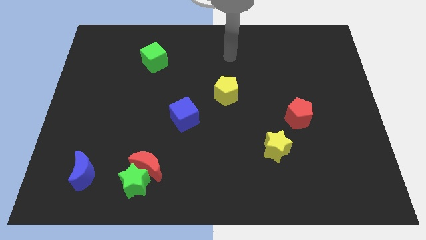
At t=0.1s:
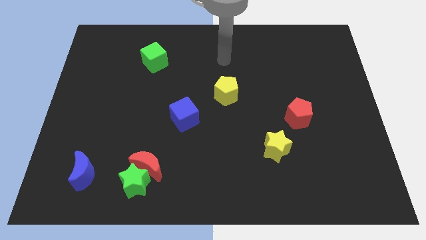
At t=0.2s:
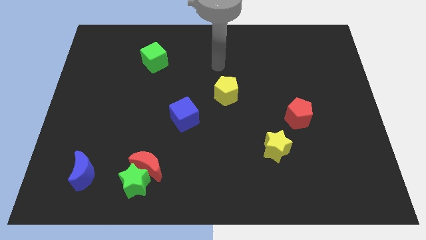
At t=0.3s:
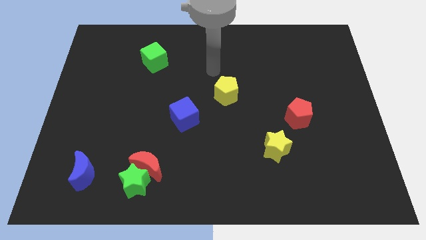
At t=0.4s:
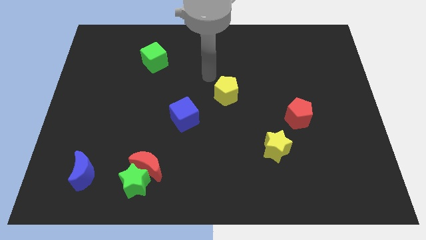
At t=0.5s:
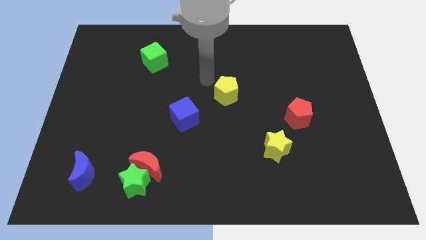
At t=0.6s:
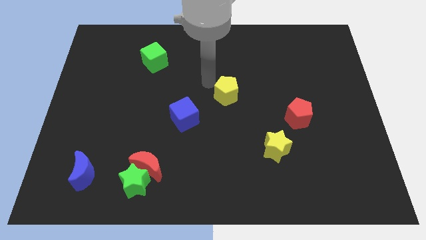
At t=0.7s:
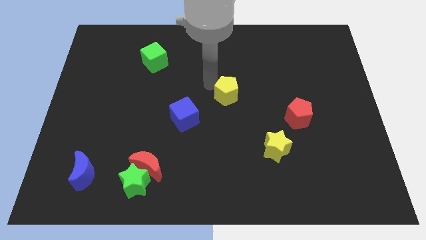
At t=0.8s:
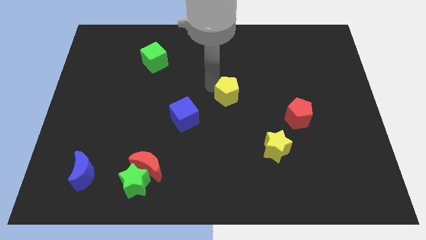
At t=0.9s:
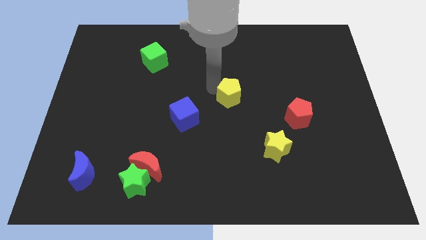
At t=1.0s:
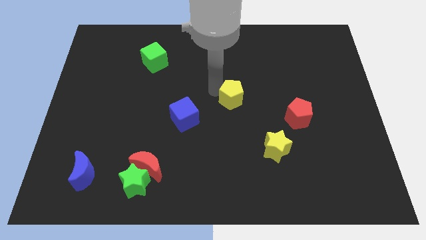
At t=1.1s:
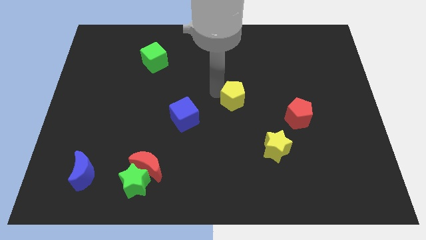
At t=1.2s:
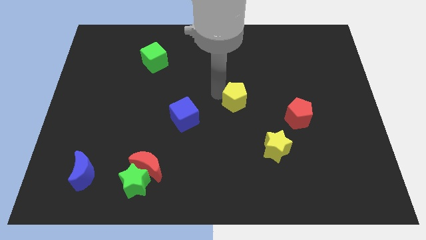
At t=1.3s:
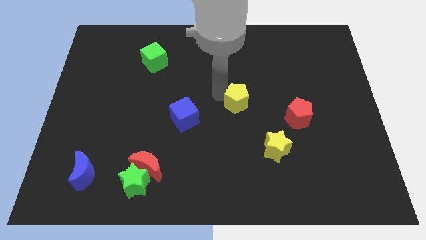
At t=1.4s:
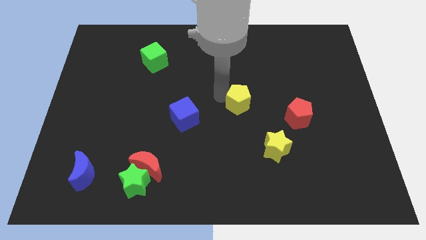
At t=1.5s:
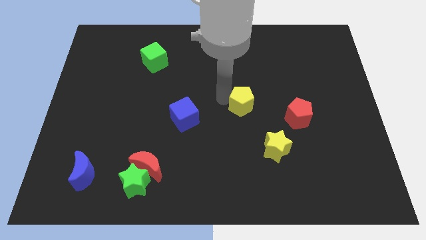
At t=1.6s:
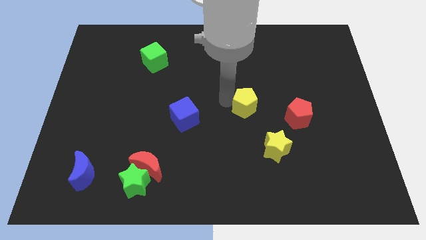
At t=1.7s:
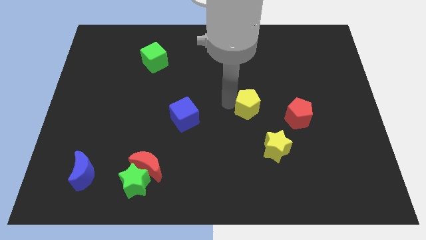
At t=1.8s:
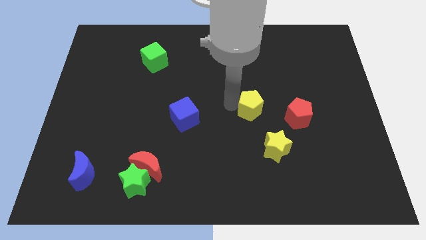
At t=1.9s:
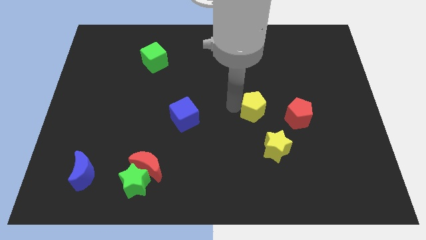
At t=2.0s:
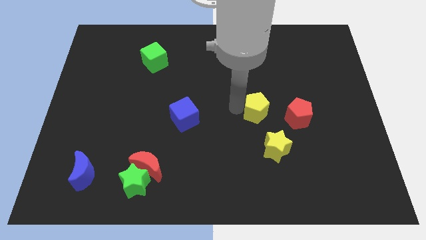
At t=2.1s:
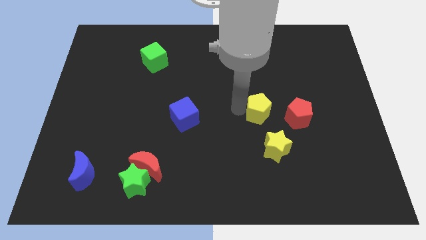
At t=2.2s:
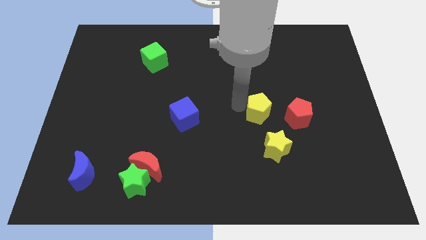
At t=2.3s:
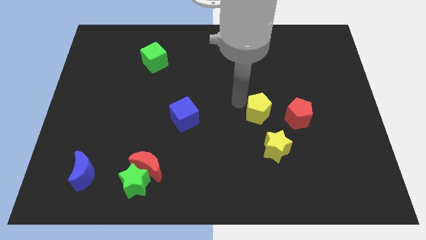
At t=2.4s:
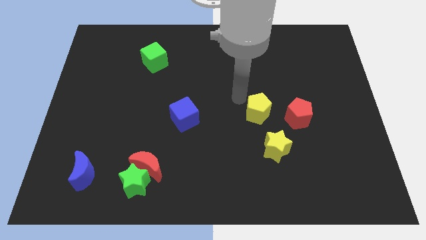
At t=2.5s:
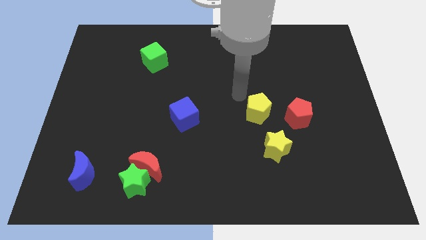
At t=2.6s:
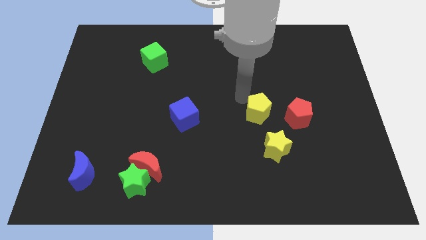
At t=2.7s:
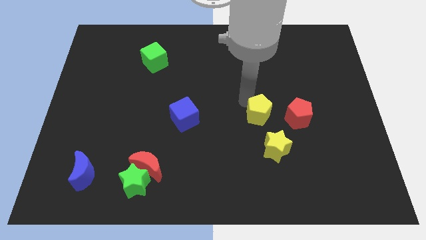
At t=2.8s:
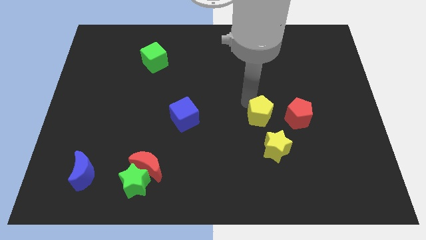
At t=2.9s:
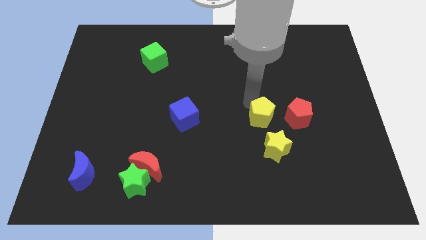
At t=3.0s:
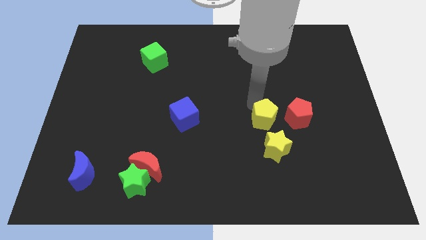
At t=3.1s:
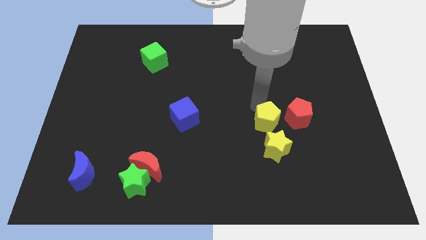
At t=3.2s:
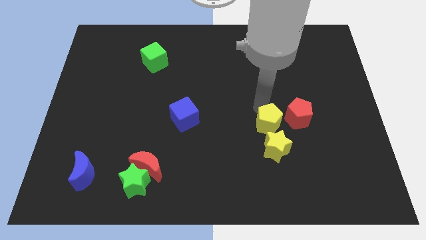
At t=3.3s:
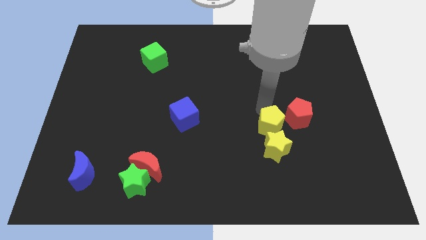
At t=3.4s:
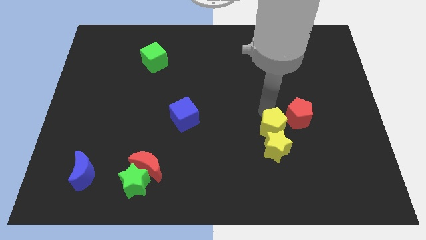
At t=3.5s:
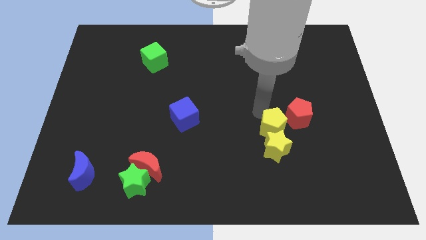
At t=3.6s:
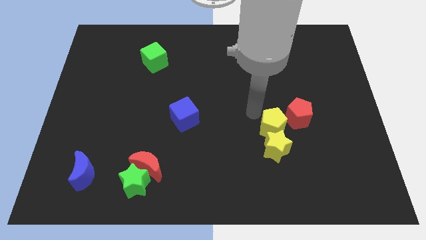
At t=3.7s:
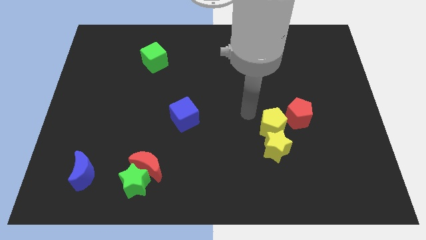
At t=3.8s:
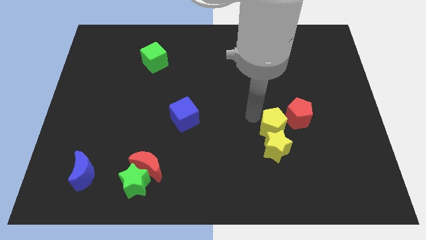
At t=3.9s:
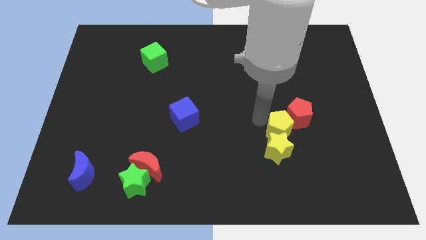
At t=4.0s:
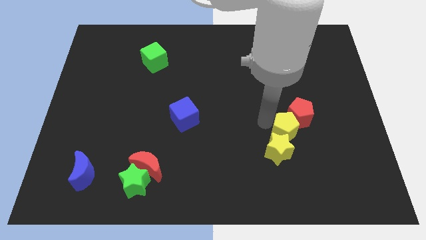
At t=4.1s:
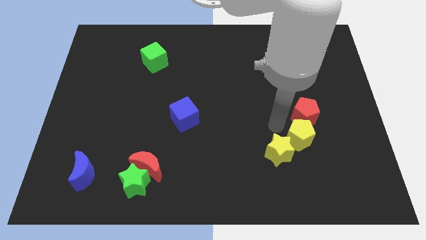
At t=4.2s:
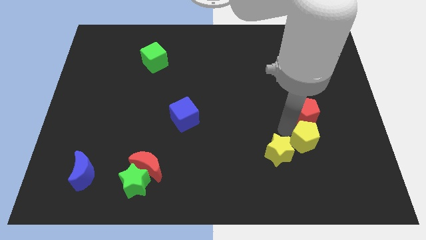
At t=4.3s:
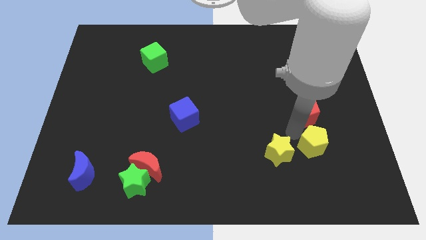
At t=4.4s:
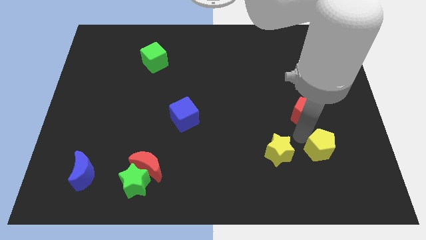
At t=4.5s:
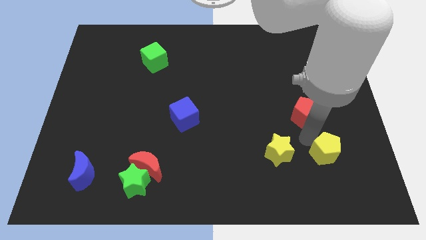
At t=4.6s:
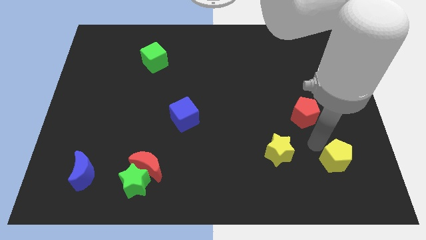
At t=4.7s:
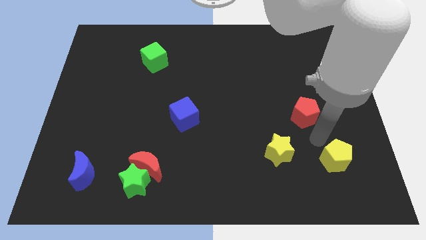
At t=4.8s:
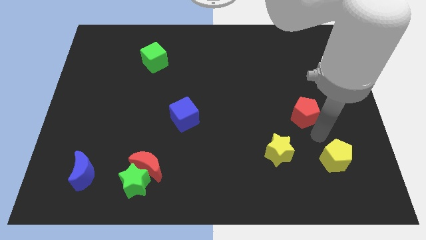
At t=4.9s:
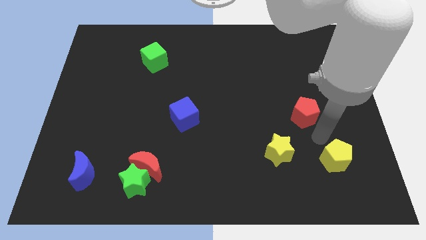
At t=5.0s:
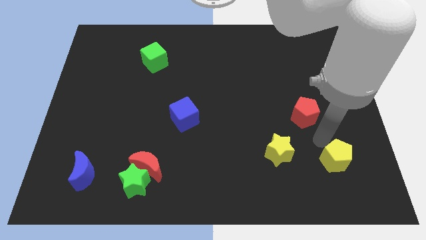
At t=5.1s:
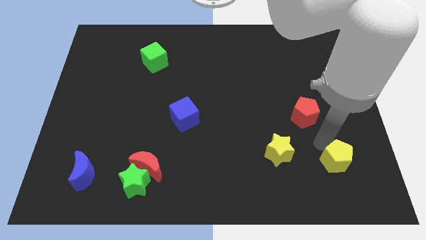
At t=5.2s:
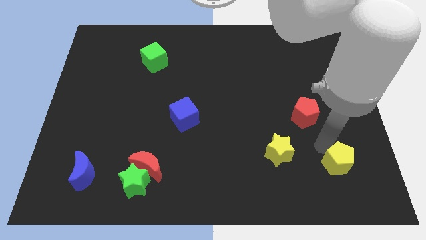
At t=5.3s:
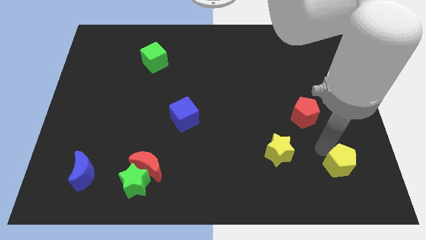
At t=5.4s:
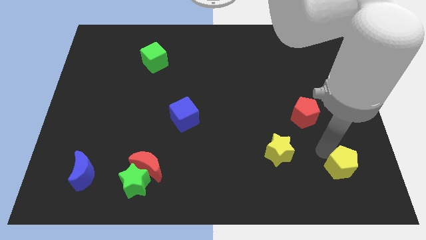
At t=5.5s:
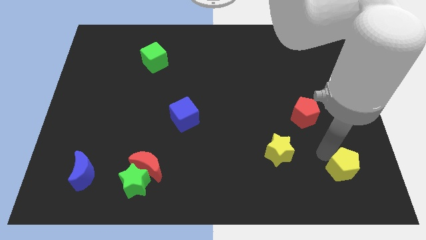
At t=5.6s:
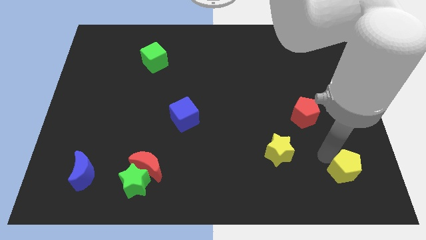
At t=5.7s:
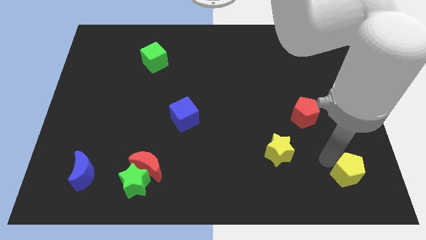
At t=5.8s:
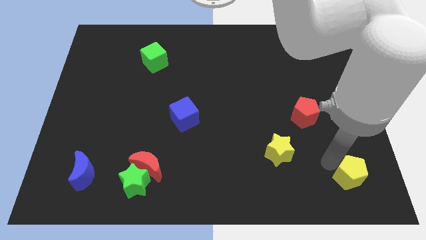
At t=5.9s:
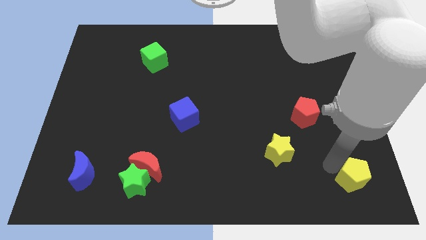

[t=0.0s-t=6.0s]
slide the yellow pentagon to the bottom right of the board
